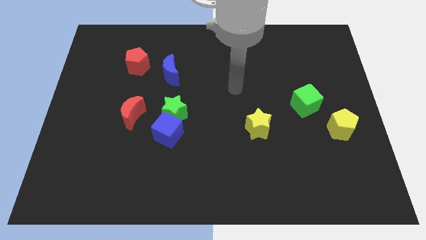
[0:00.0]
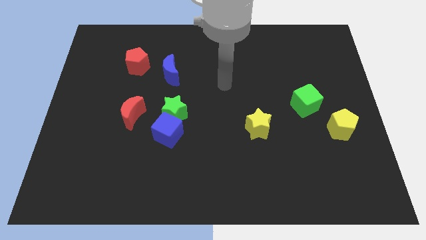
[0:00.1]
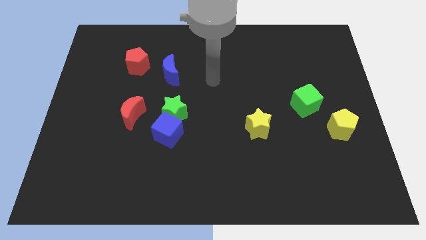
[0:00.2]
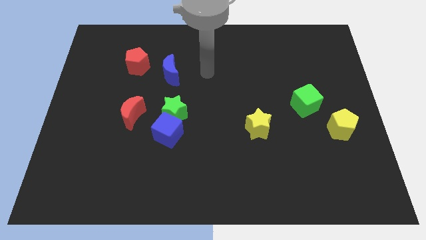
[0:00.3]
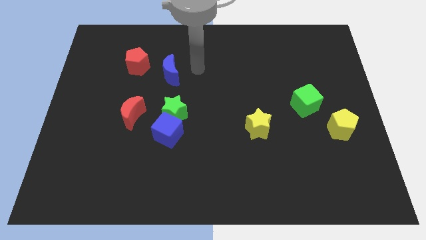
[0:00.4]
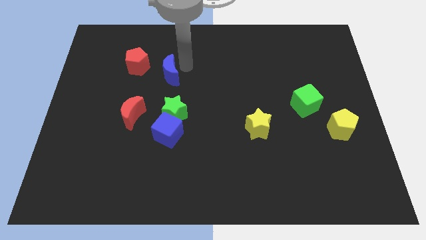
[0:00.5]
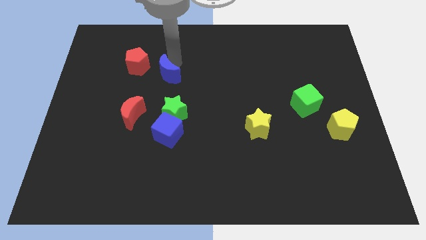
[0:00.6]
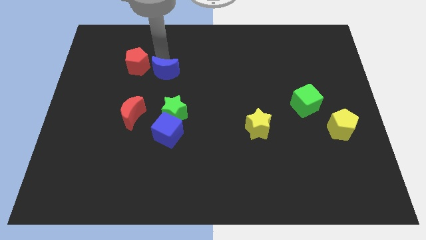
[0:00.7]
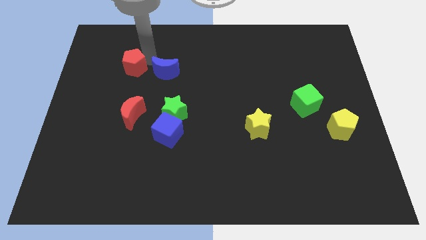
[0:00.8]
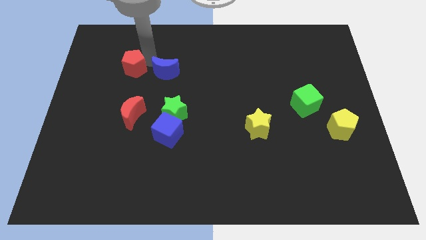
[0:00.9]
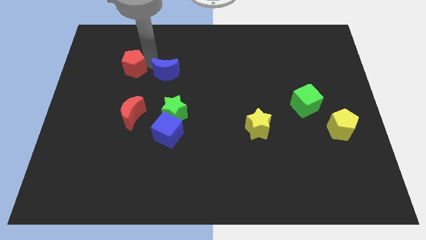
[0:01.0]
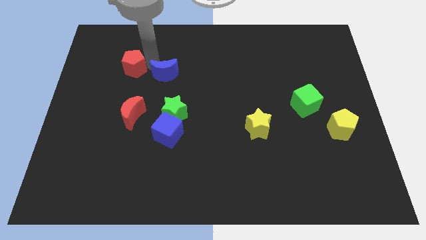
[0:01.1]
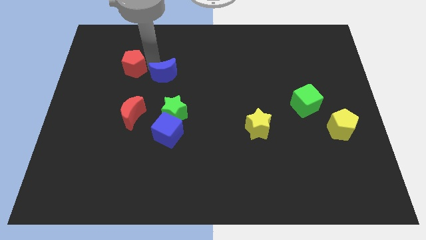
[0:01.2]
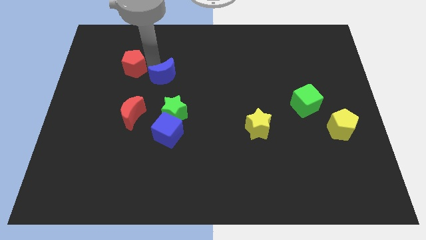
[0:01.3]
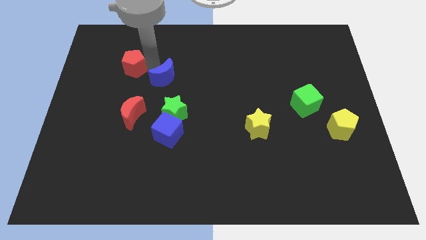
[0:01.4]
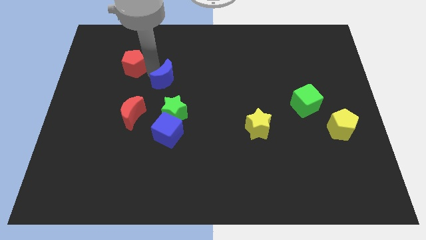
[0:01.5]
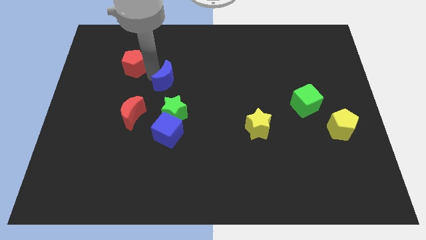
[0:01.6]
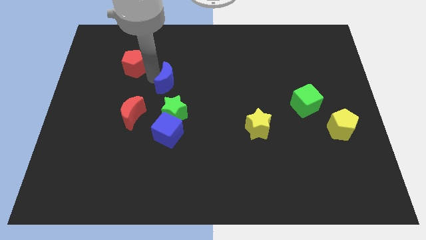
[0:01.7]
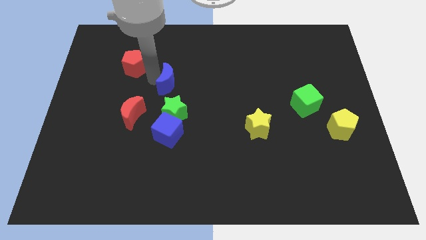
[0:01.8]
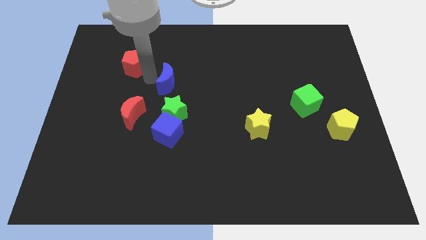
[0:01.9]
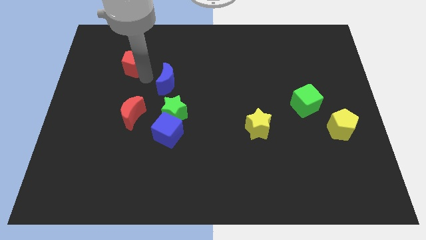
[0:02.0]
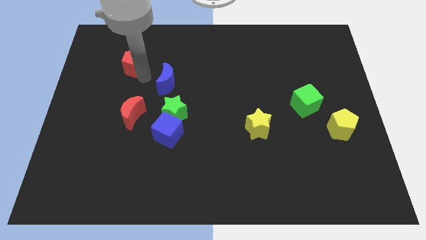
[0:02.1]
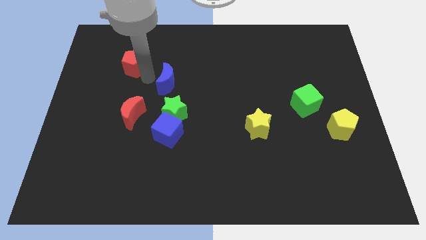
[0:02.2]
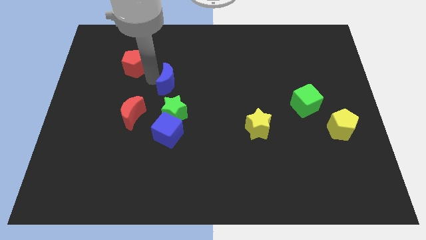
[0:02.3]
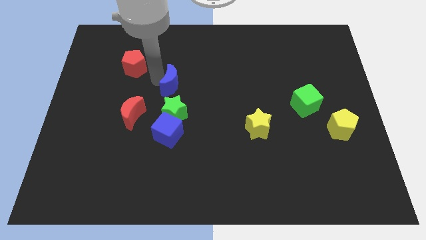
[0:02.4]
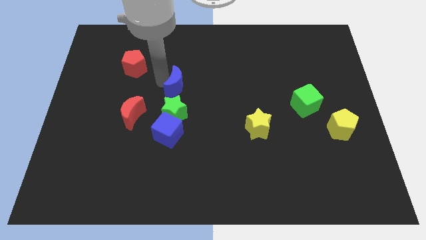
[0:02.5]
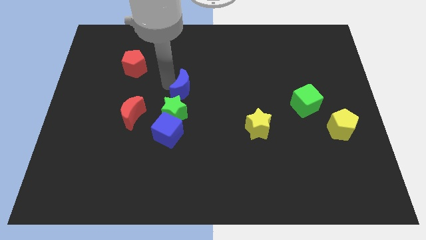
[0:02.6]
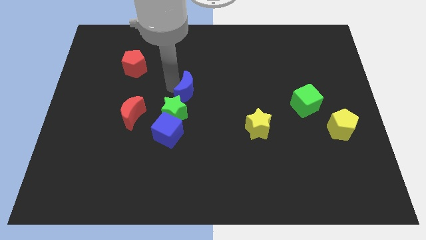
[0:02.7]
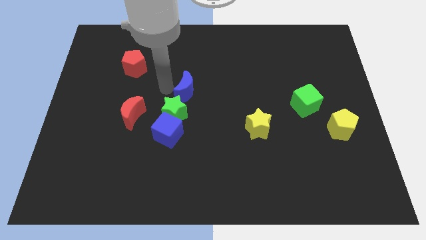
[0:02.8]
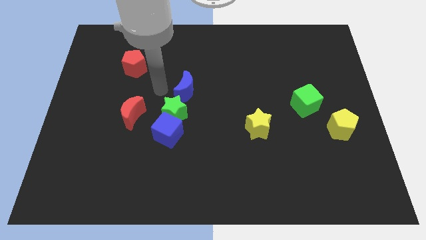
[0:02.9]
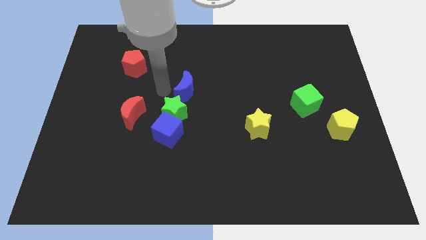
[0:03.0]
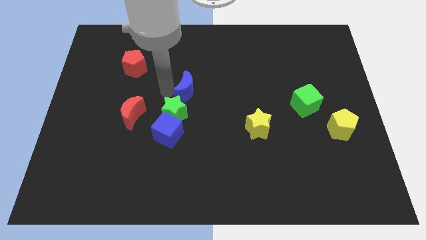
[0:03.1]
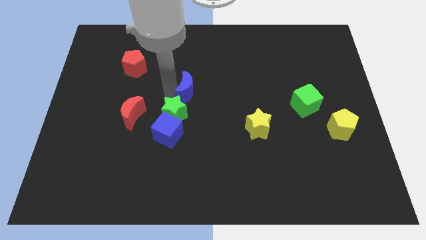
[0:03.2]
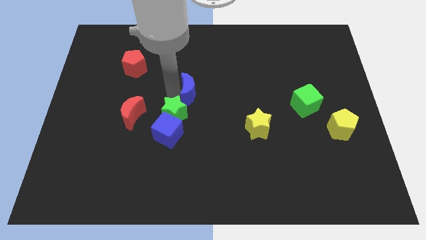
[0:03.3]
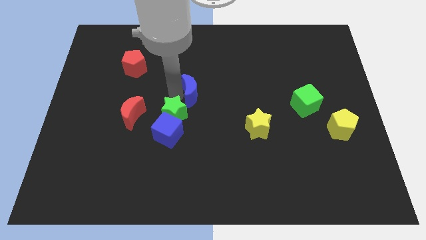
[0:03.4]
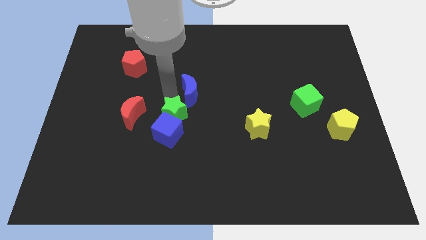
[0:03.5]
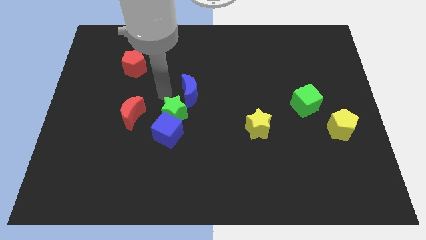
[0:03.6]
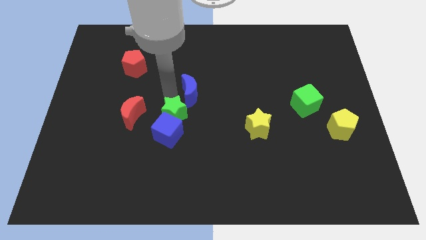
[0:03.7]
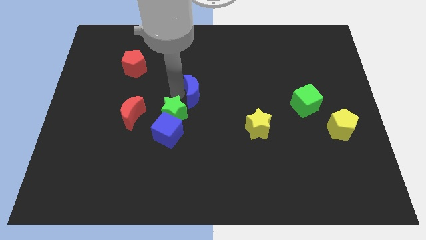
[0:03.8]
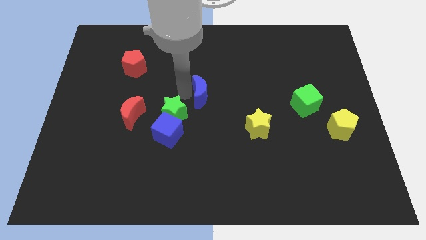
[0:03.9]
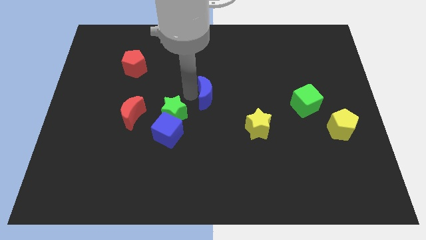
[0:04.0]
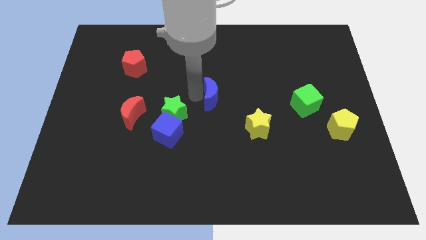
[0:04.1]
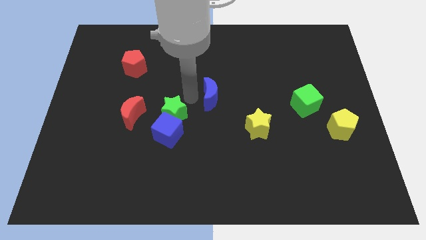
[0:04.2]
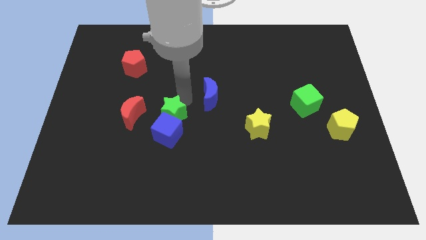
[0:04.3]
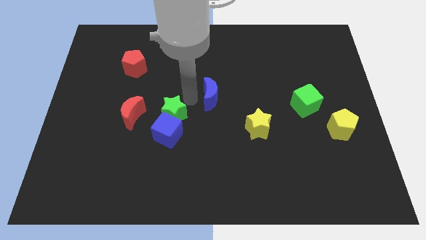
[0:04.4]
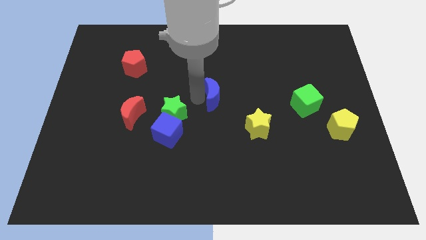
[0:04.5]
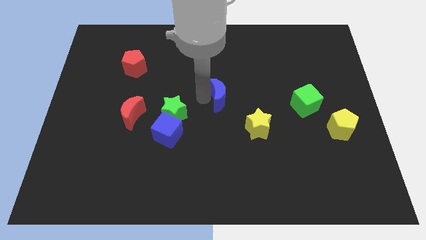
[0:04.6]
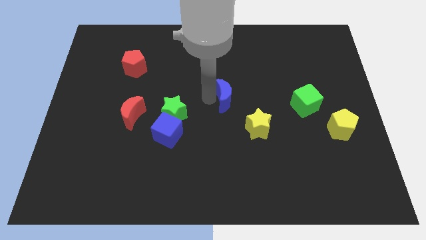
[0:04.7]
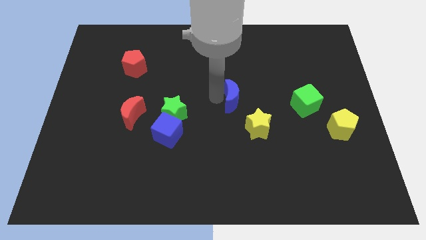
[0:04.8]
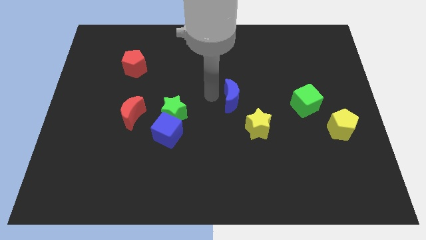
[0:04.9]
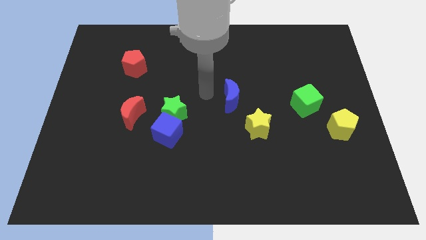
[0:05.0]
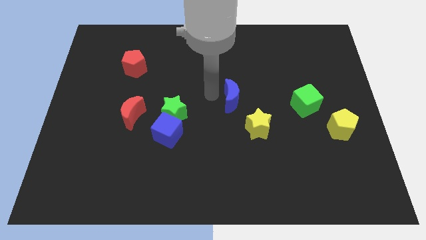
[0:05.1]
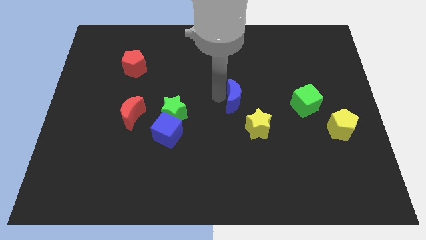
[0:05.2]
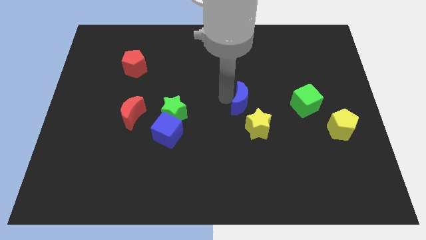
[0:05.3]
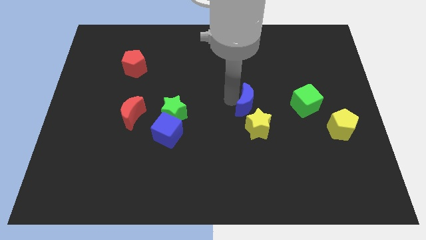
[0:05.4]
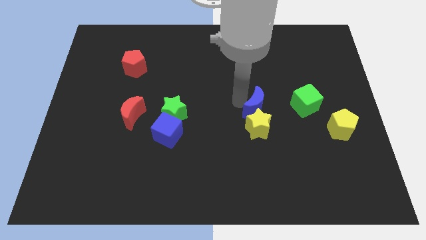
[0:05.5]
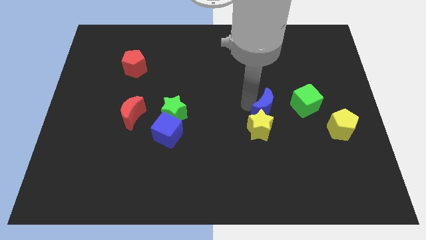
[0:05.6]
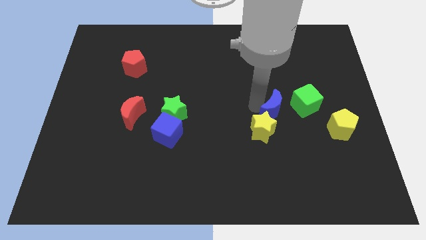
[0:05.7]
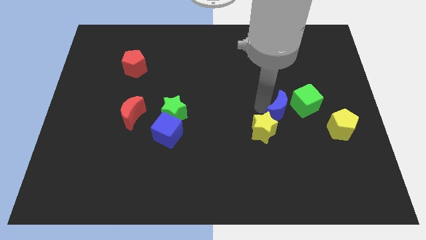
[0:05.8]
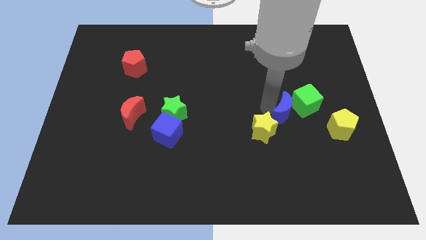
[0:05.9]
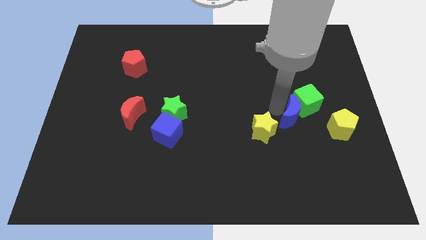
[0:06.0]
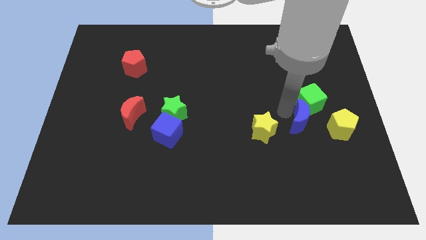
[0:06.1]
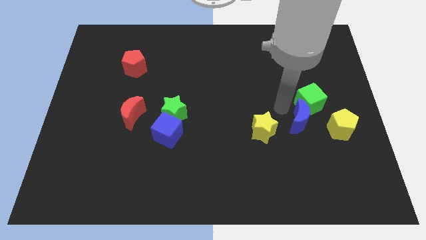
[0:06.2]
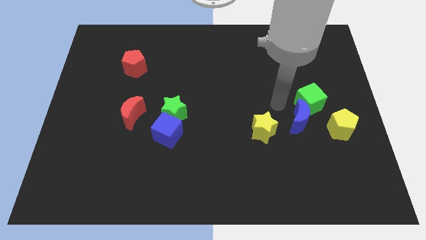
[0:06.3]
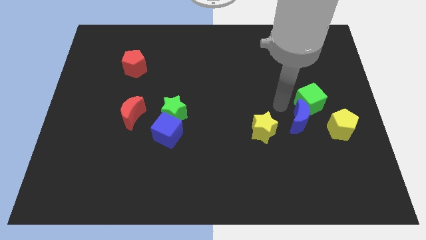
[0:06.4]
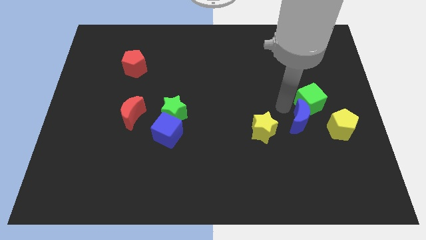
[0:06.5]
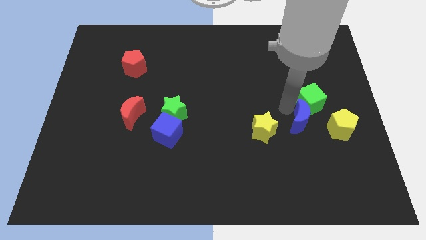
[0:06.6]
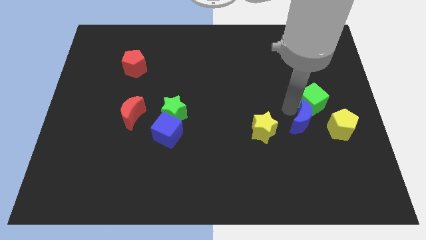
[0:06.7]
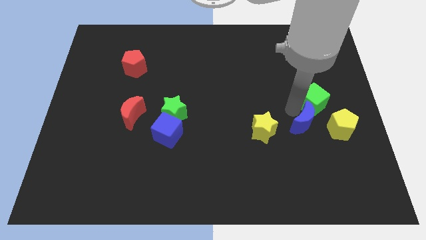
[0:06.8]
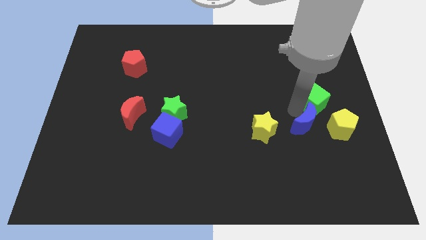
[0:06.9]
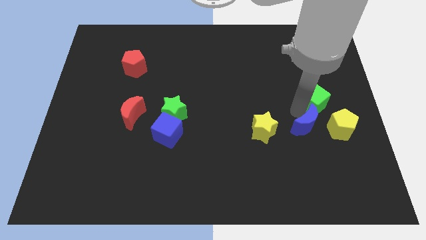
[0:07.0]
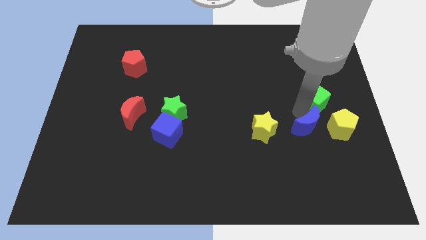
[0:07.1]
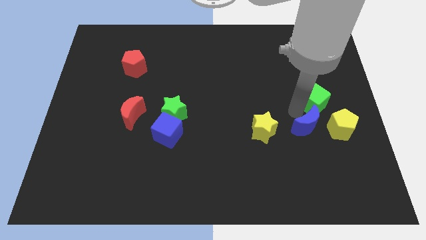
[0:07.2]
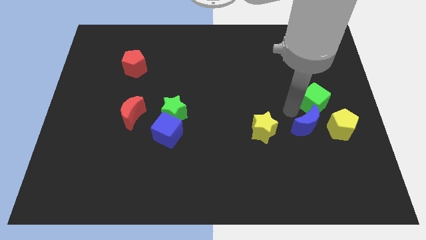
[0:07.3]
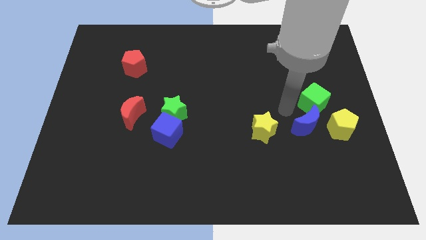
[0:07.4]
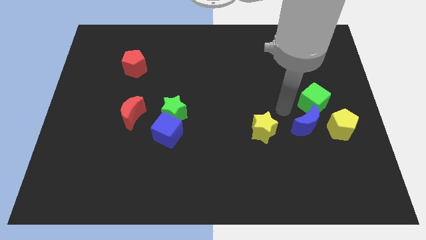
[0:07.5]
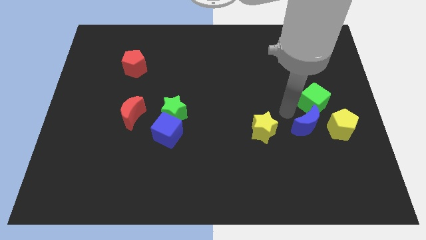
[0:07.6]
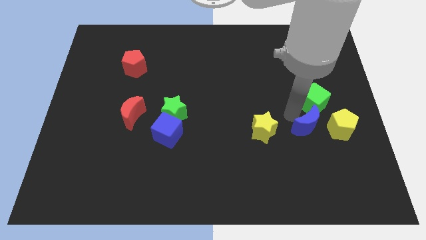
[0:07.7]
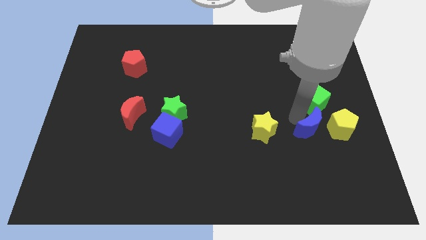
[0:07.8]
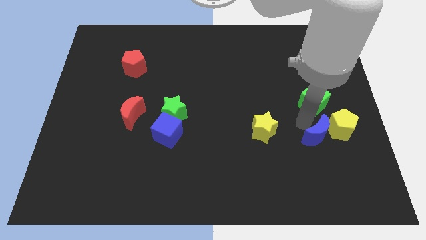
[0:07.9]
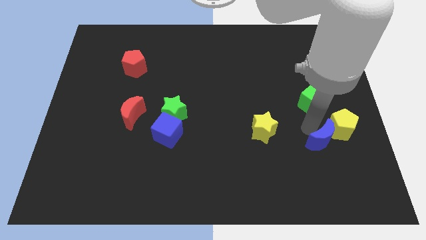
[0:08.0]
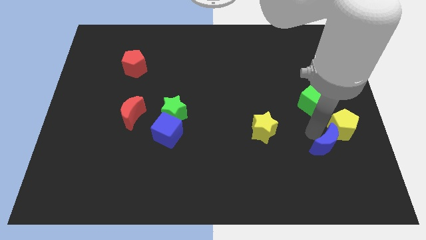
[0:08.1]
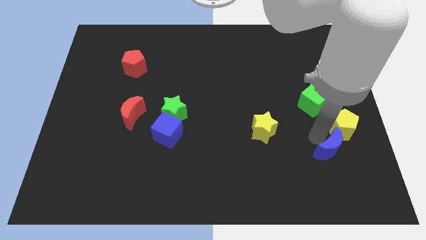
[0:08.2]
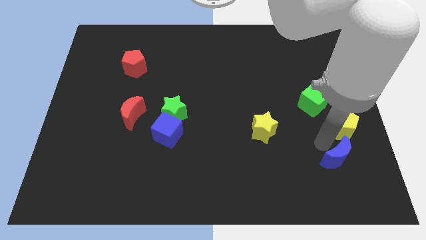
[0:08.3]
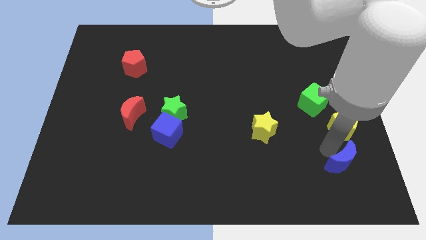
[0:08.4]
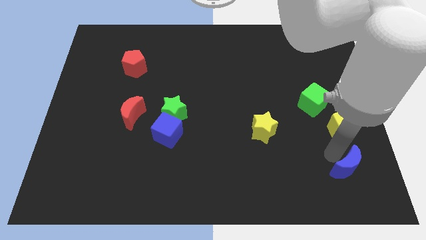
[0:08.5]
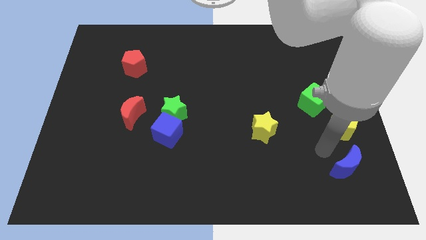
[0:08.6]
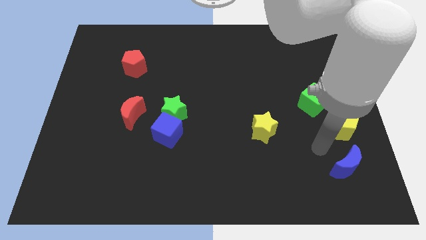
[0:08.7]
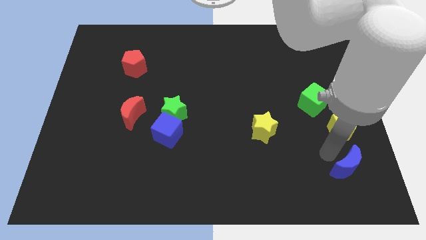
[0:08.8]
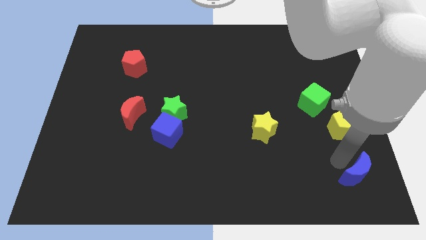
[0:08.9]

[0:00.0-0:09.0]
move the blue moon to the bottom right corner
